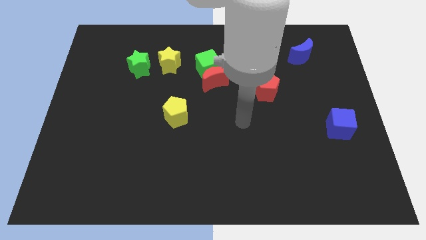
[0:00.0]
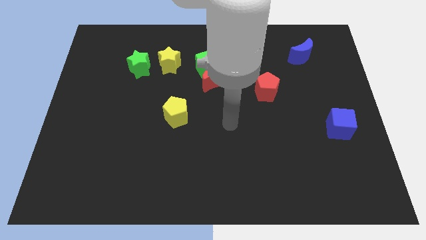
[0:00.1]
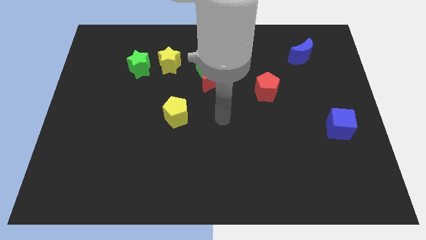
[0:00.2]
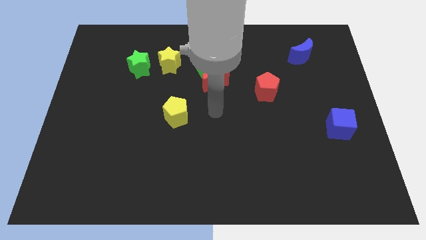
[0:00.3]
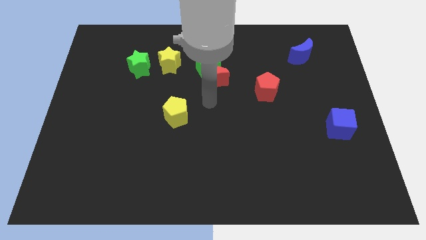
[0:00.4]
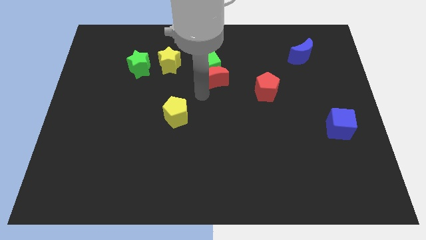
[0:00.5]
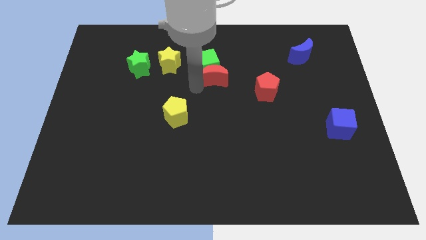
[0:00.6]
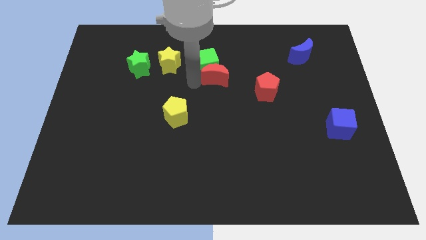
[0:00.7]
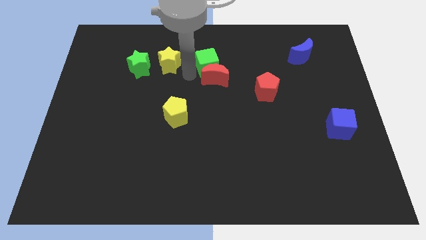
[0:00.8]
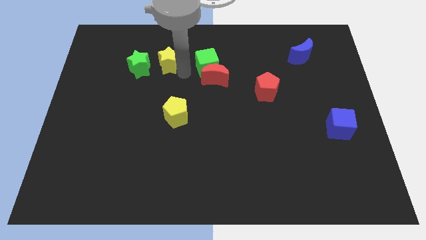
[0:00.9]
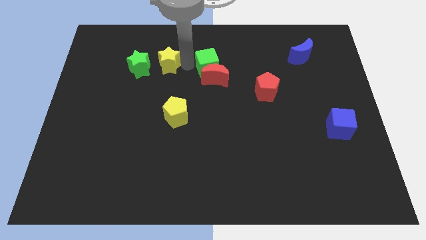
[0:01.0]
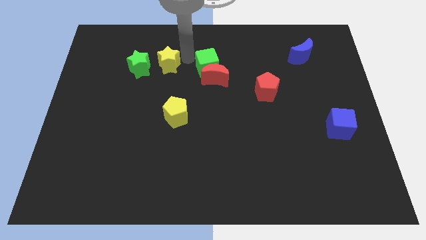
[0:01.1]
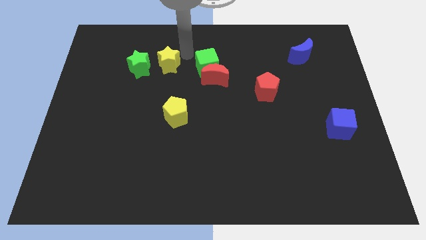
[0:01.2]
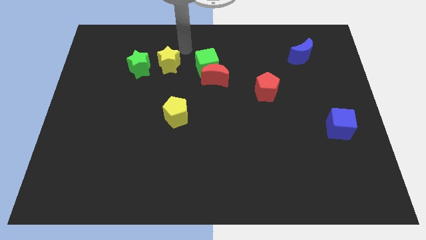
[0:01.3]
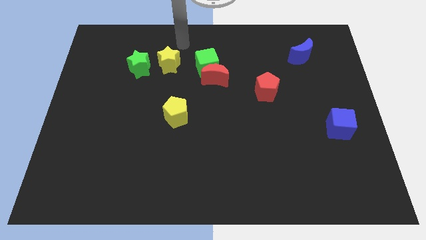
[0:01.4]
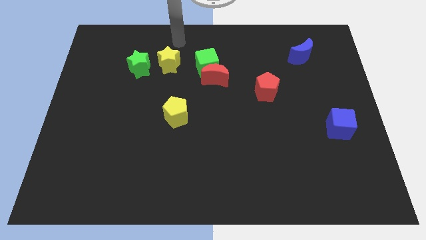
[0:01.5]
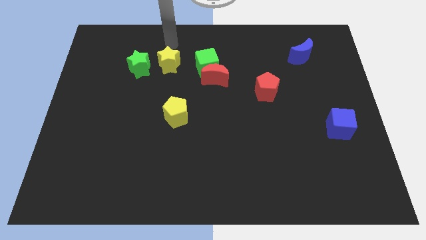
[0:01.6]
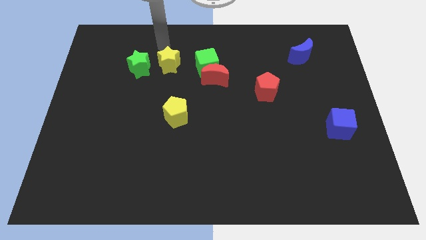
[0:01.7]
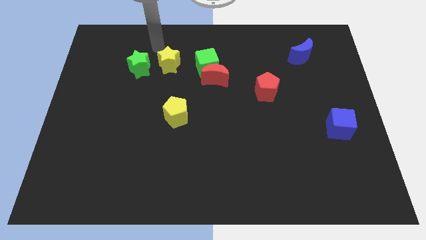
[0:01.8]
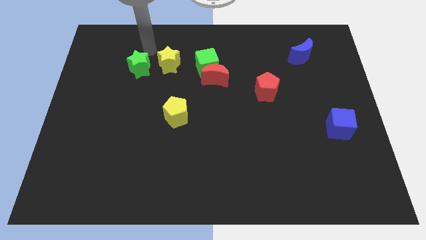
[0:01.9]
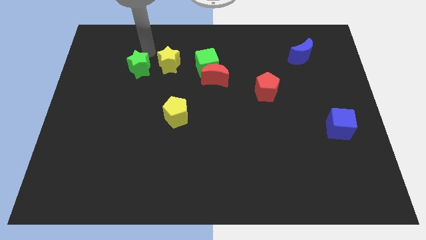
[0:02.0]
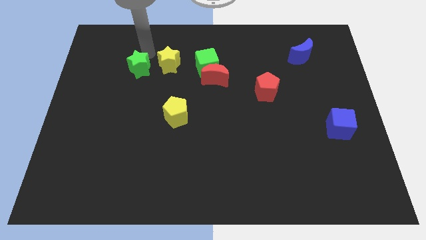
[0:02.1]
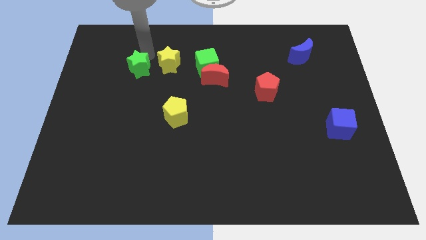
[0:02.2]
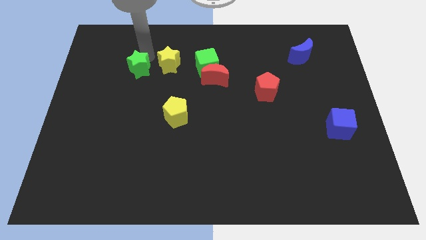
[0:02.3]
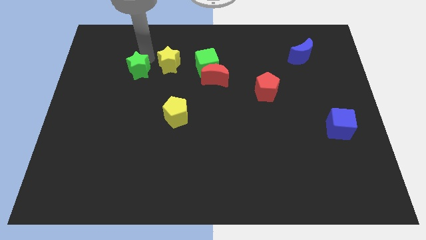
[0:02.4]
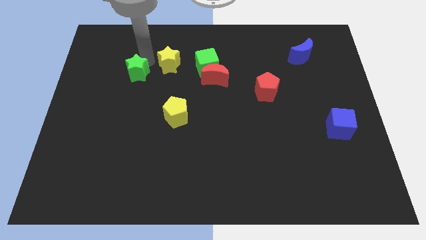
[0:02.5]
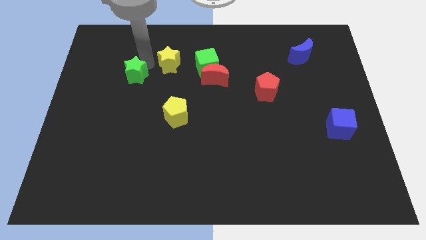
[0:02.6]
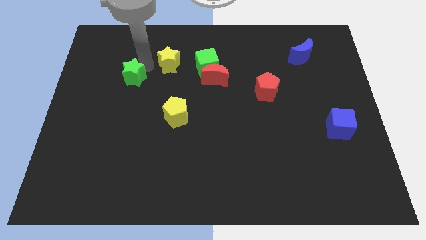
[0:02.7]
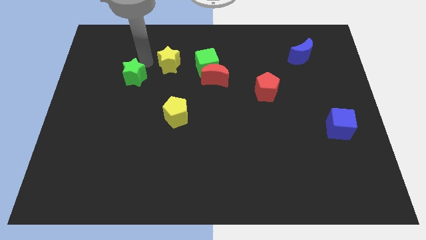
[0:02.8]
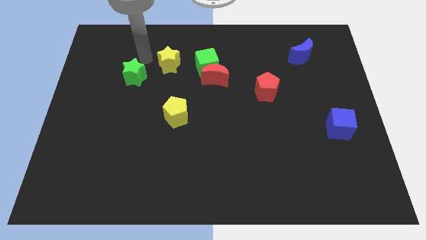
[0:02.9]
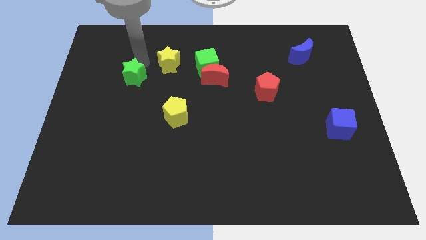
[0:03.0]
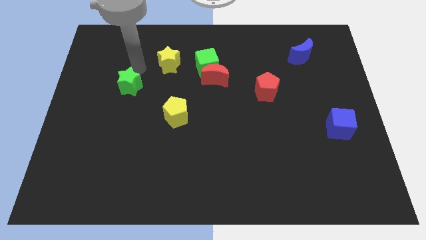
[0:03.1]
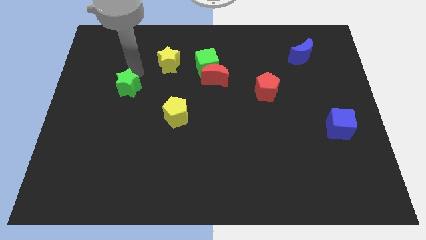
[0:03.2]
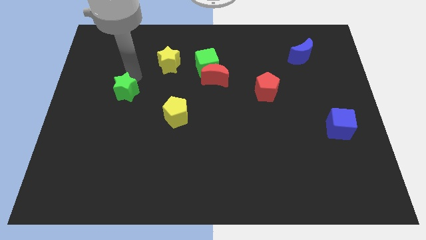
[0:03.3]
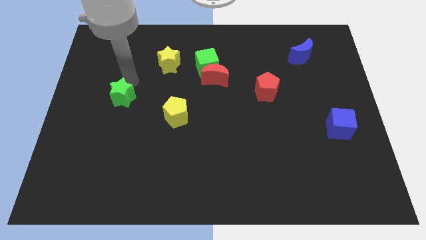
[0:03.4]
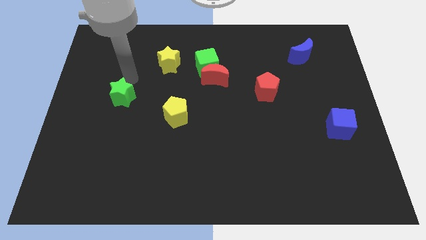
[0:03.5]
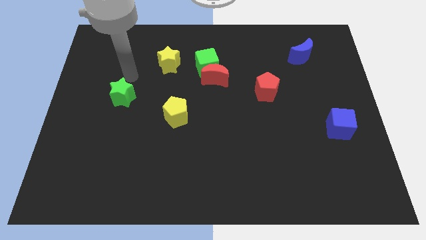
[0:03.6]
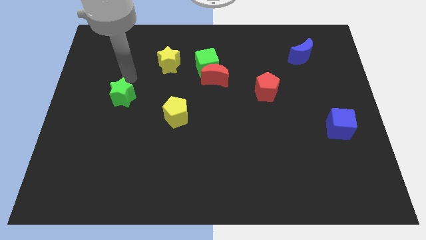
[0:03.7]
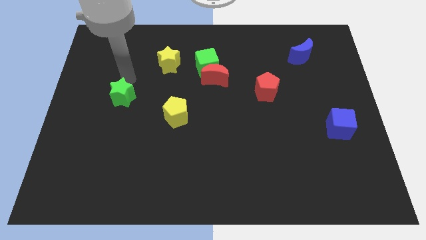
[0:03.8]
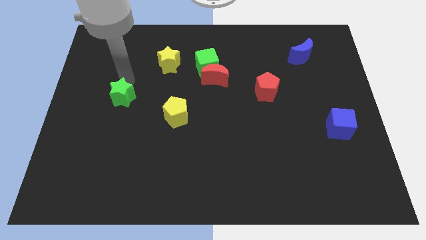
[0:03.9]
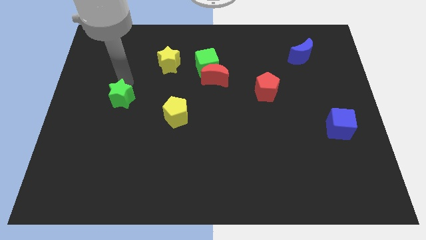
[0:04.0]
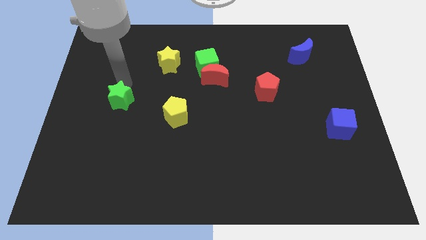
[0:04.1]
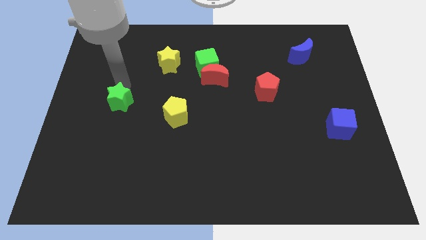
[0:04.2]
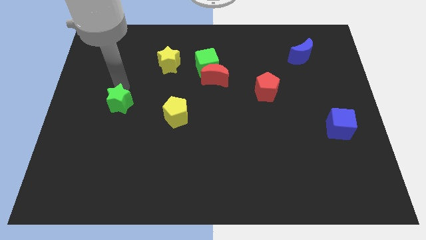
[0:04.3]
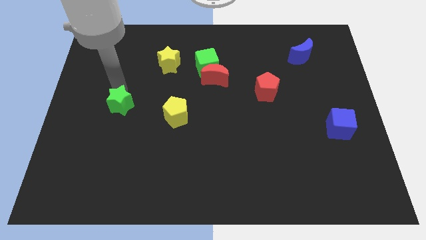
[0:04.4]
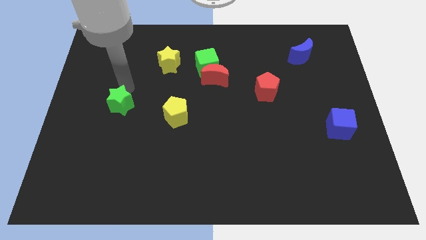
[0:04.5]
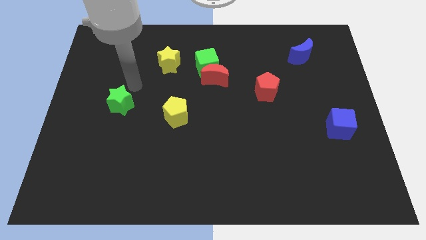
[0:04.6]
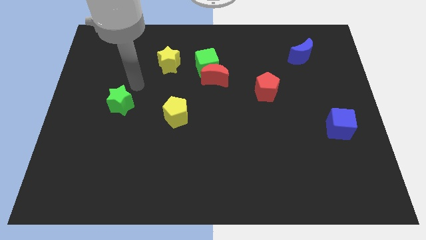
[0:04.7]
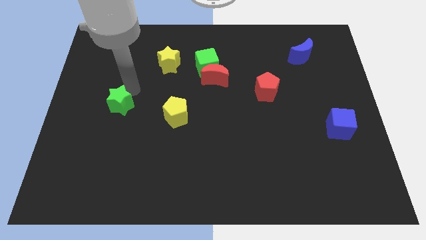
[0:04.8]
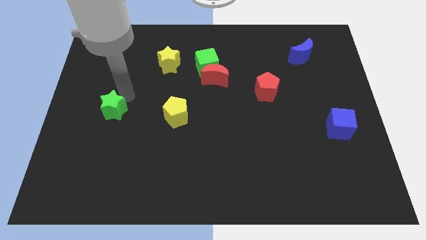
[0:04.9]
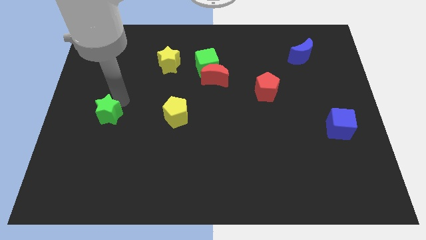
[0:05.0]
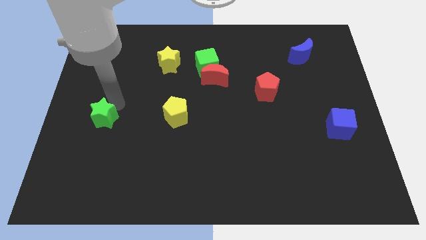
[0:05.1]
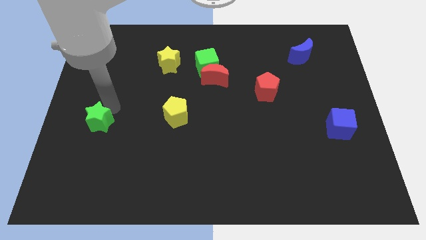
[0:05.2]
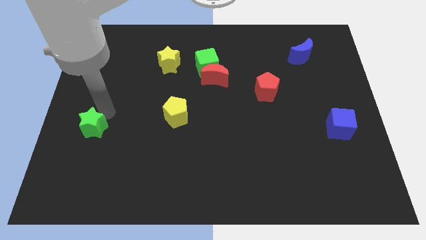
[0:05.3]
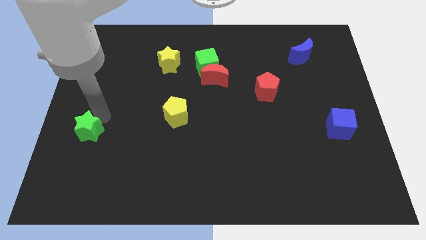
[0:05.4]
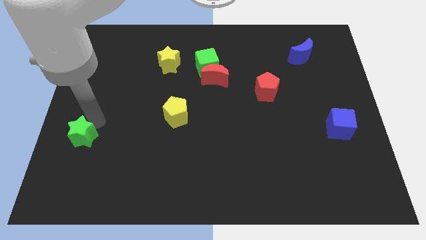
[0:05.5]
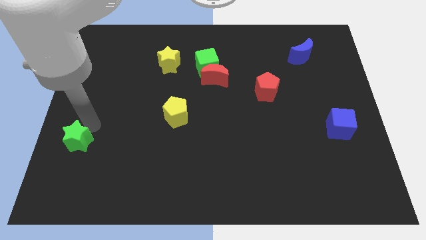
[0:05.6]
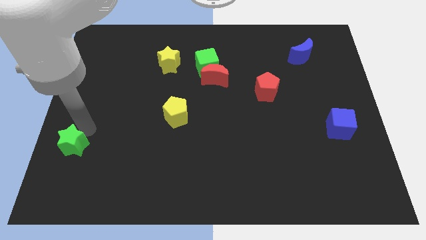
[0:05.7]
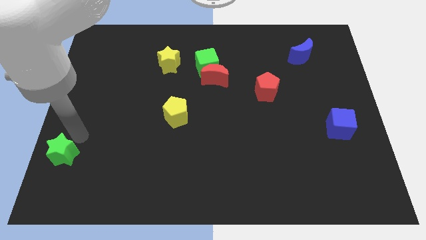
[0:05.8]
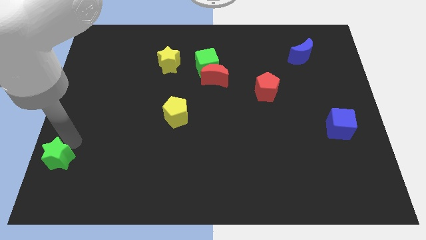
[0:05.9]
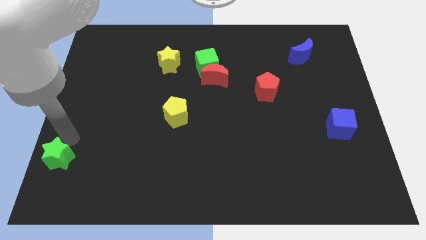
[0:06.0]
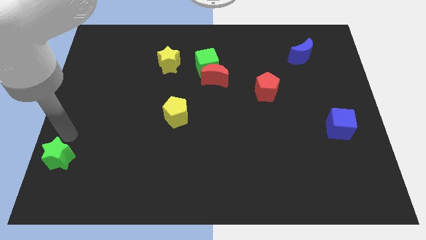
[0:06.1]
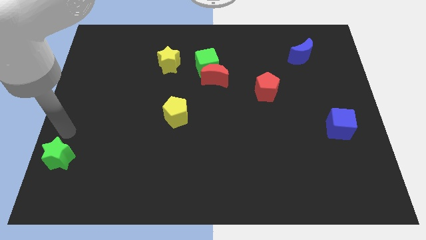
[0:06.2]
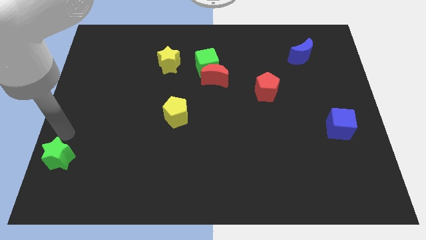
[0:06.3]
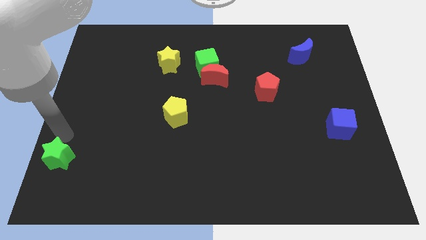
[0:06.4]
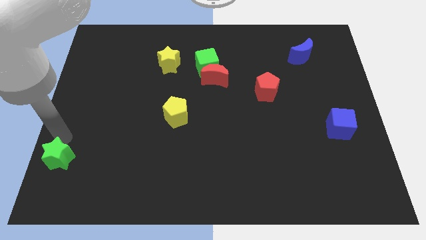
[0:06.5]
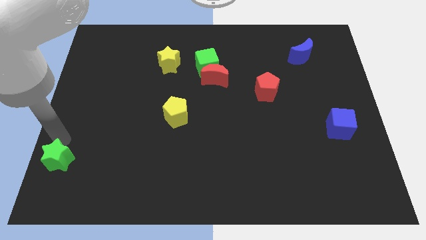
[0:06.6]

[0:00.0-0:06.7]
move the green star to the lower left corner
